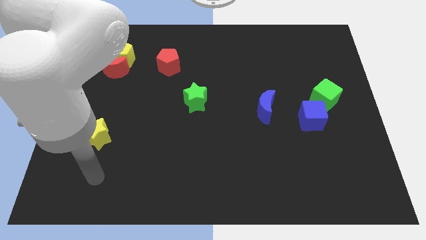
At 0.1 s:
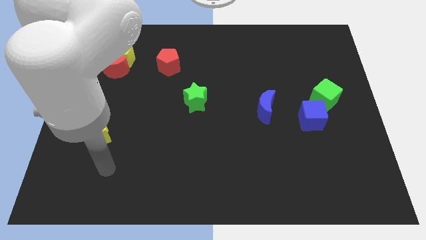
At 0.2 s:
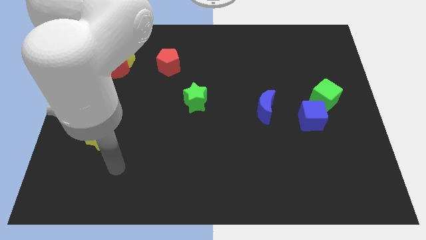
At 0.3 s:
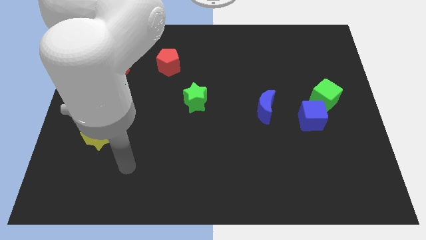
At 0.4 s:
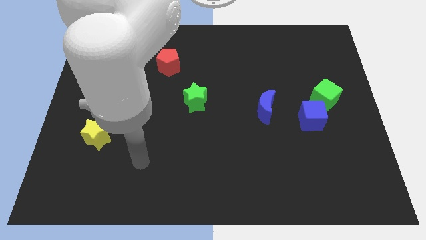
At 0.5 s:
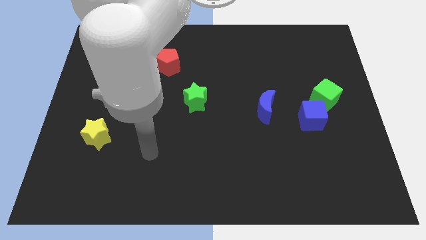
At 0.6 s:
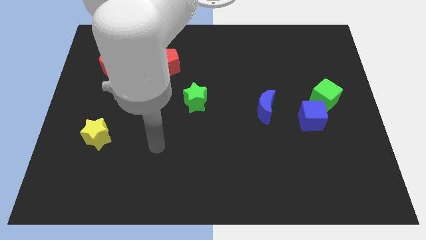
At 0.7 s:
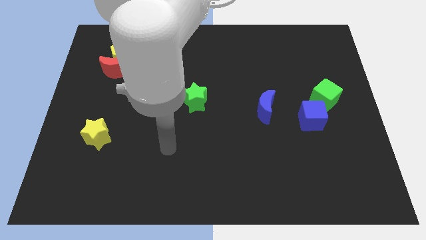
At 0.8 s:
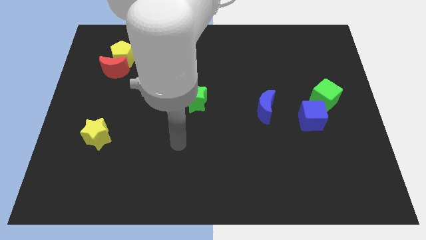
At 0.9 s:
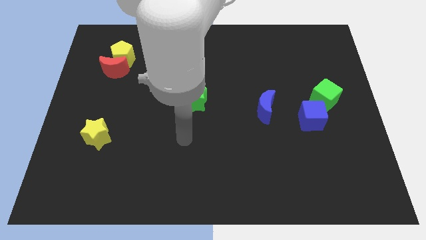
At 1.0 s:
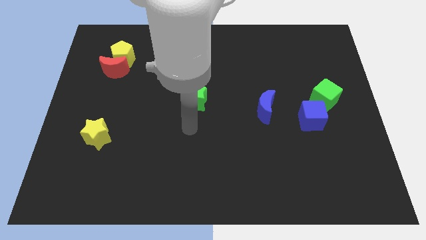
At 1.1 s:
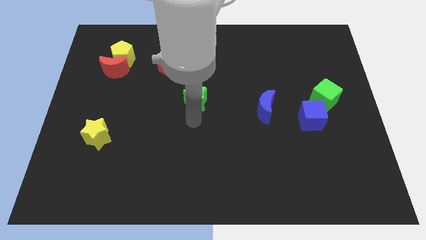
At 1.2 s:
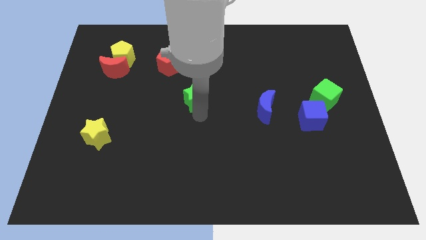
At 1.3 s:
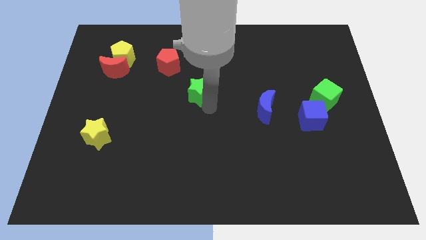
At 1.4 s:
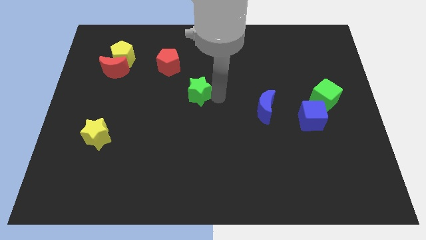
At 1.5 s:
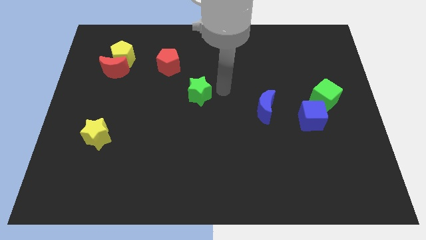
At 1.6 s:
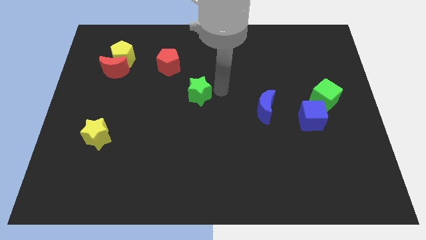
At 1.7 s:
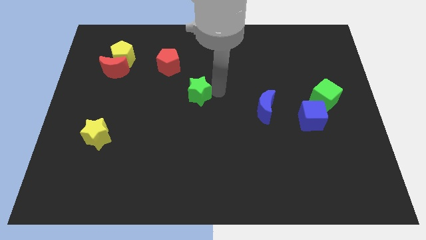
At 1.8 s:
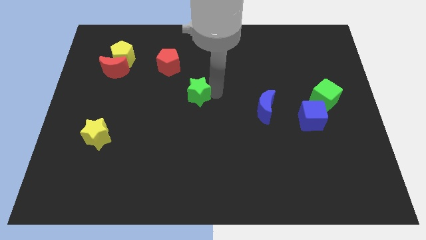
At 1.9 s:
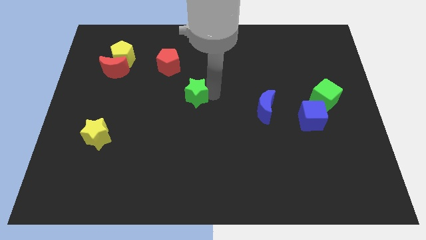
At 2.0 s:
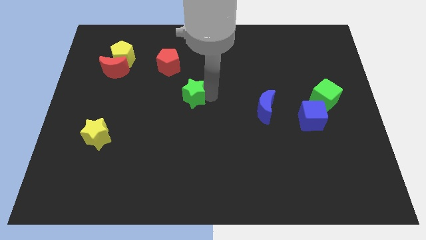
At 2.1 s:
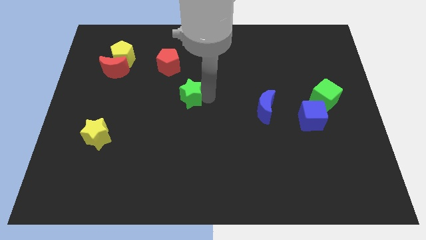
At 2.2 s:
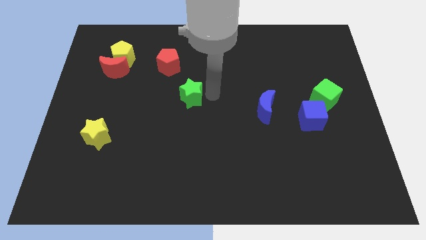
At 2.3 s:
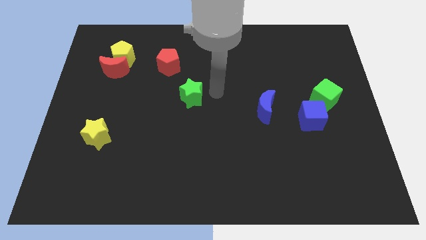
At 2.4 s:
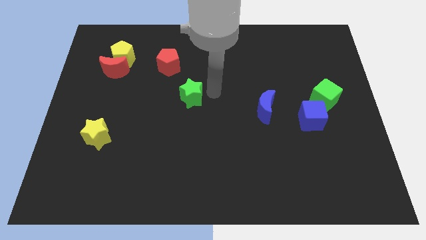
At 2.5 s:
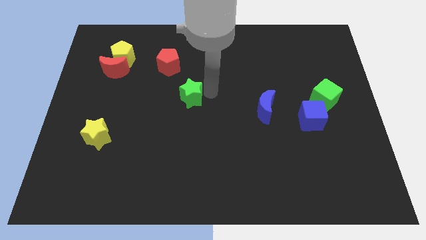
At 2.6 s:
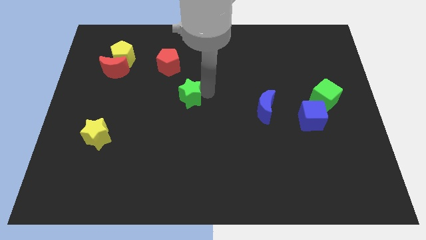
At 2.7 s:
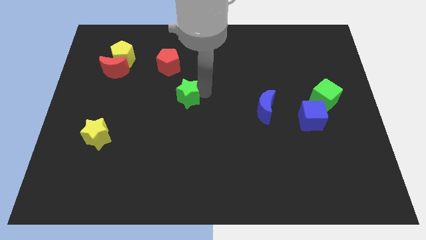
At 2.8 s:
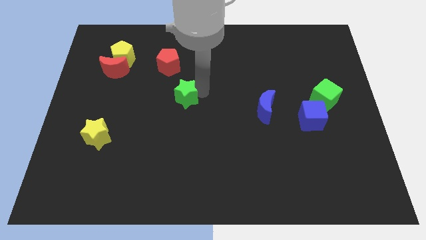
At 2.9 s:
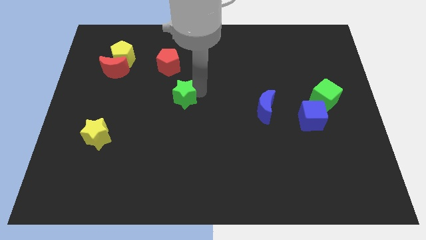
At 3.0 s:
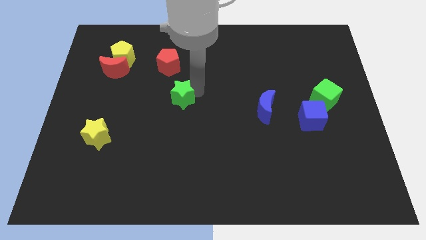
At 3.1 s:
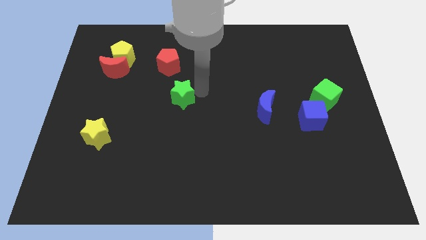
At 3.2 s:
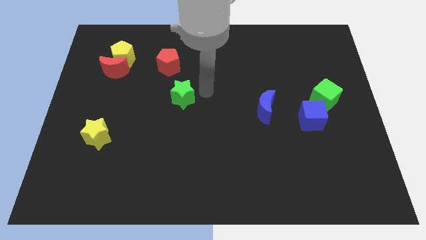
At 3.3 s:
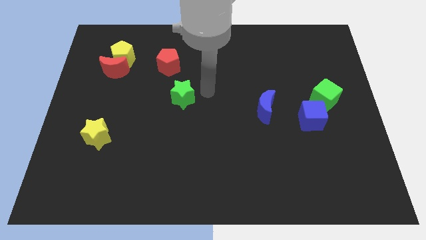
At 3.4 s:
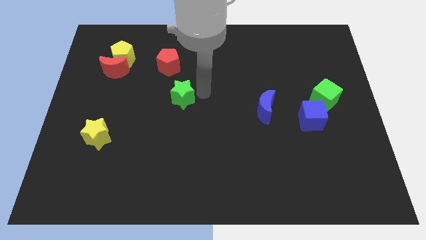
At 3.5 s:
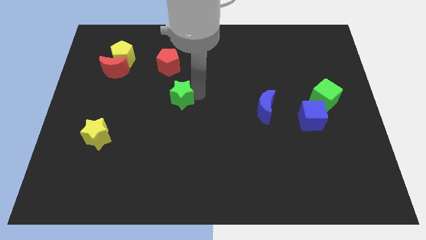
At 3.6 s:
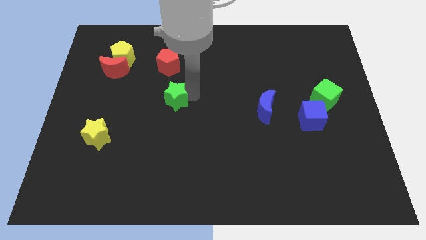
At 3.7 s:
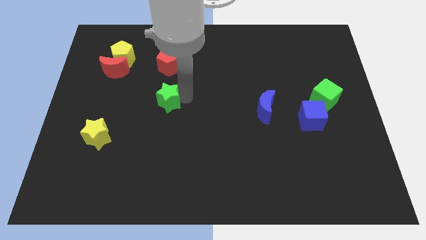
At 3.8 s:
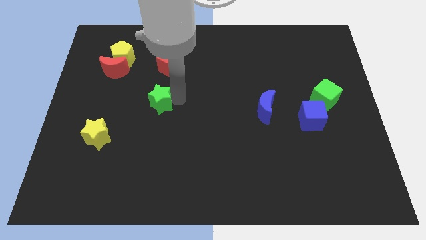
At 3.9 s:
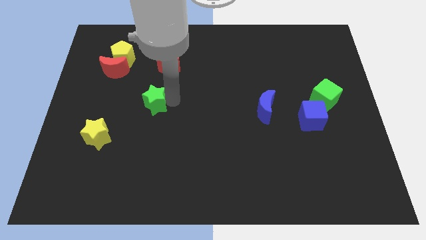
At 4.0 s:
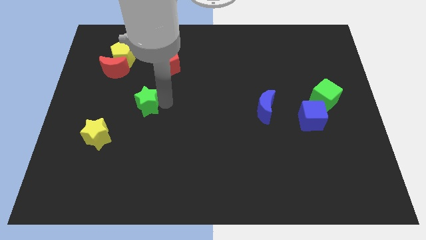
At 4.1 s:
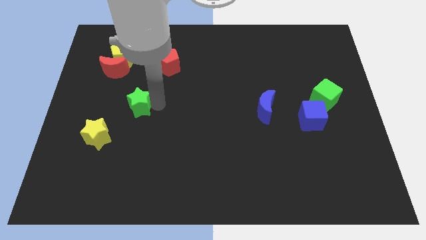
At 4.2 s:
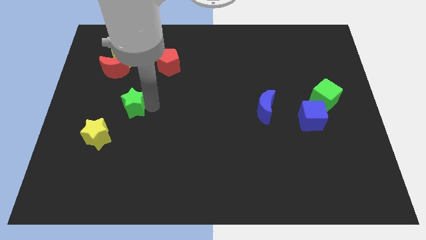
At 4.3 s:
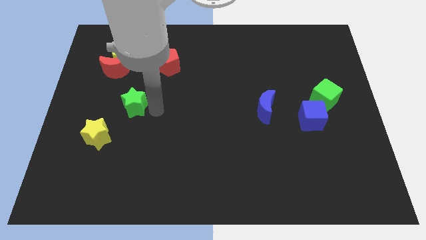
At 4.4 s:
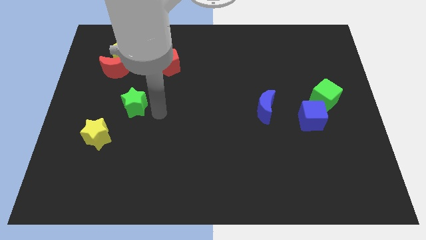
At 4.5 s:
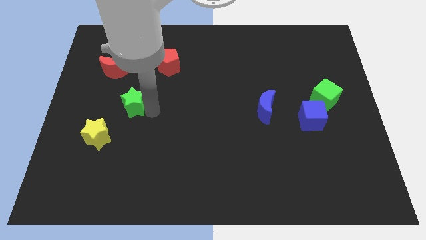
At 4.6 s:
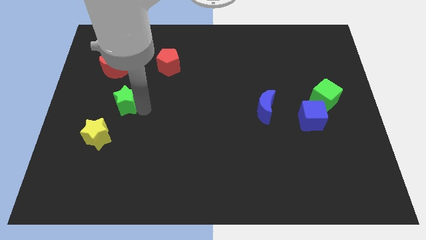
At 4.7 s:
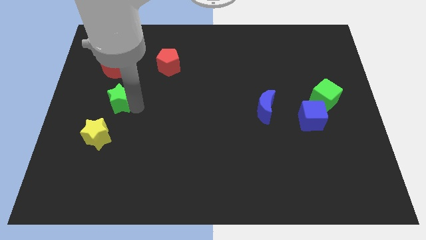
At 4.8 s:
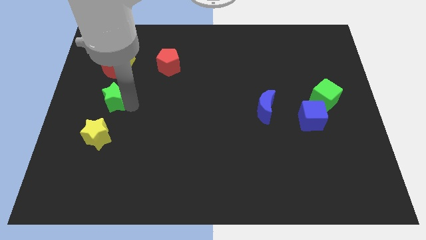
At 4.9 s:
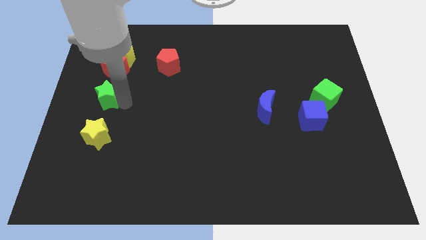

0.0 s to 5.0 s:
put the green star to the left side

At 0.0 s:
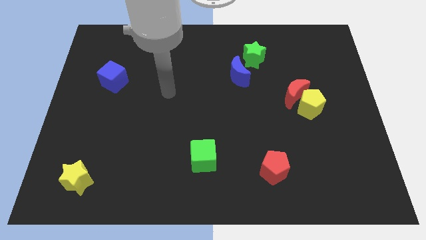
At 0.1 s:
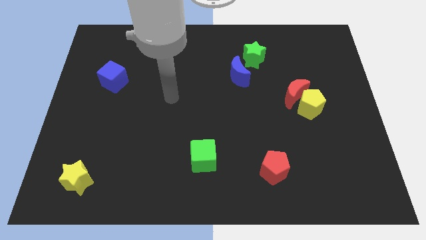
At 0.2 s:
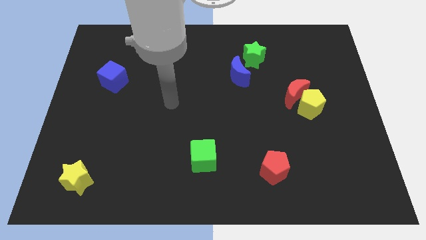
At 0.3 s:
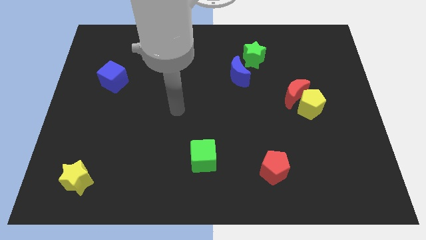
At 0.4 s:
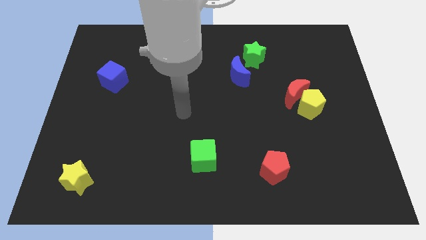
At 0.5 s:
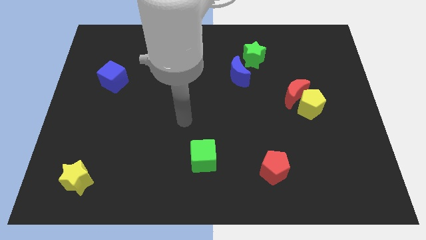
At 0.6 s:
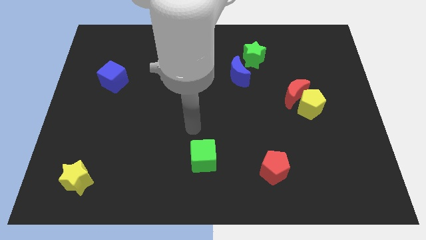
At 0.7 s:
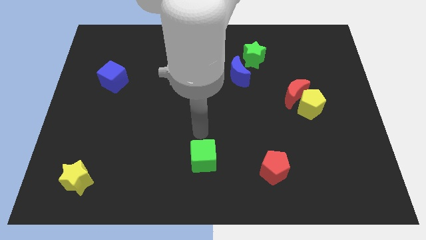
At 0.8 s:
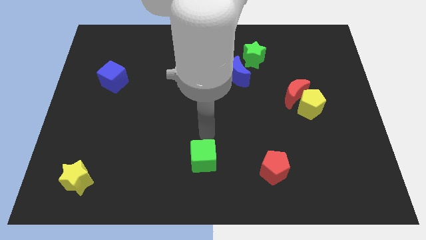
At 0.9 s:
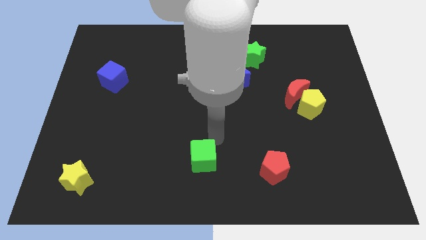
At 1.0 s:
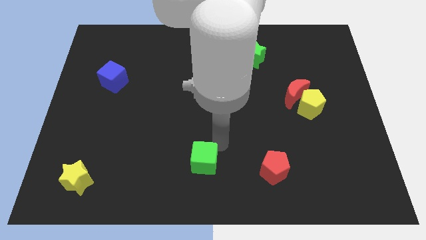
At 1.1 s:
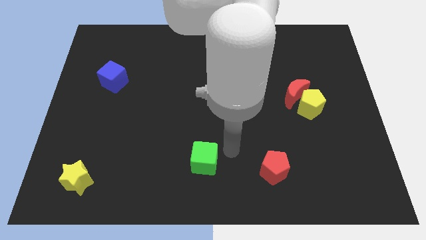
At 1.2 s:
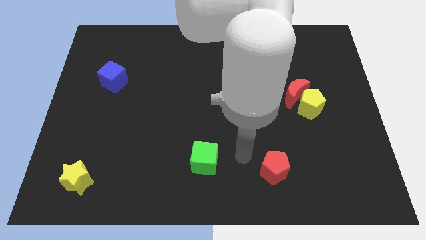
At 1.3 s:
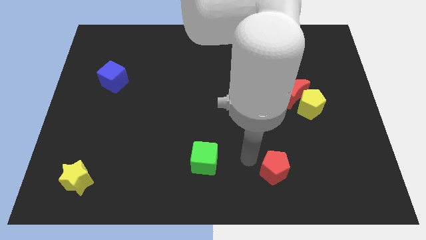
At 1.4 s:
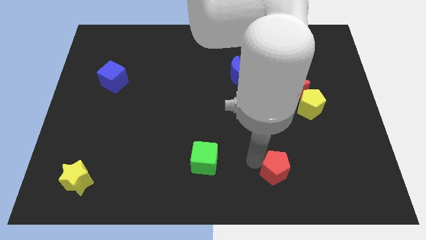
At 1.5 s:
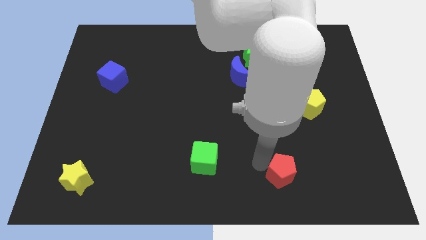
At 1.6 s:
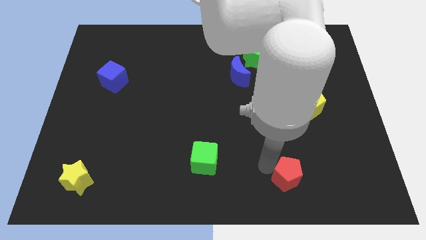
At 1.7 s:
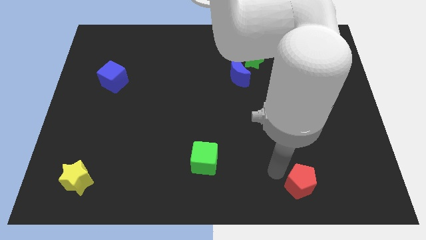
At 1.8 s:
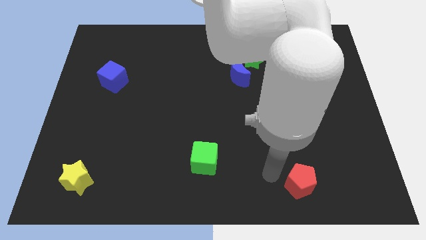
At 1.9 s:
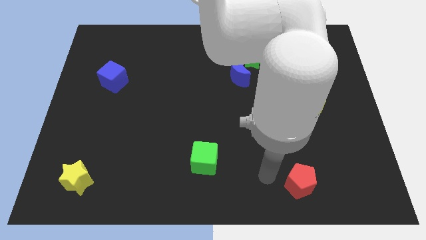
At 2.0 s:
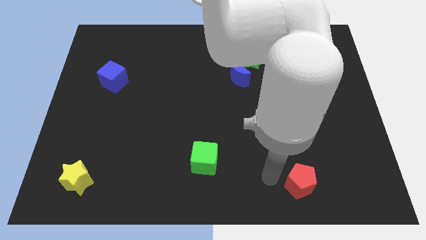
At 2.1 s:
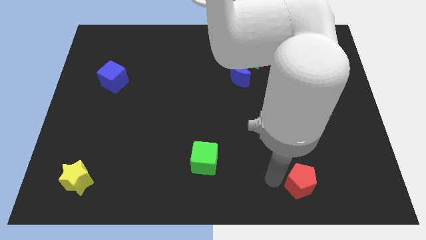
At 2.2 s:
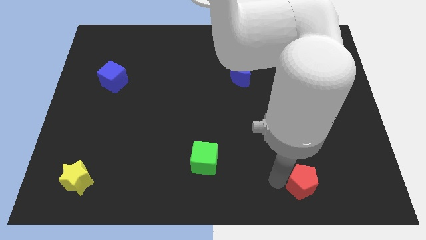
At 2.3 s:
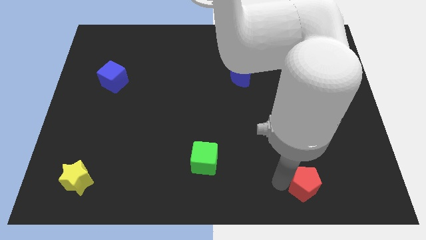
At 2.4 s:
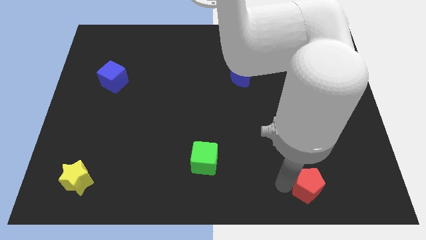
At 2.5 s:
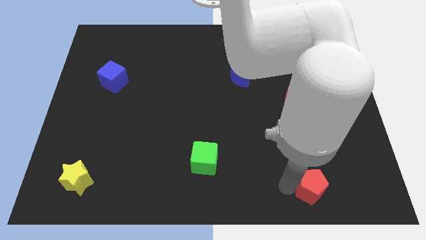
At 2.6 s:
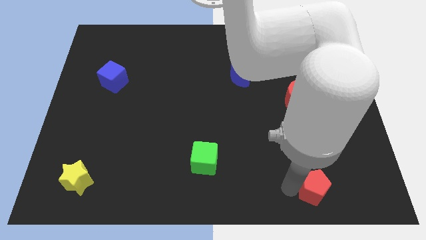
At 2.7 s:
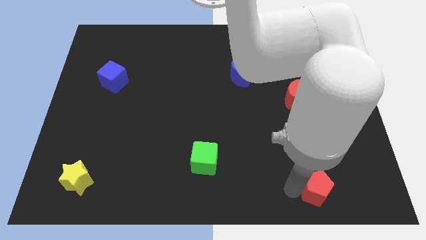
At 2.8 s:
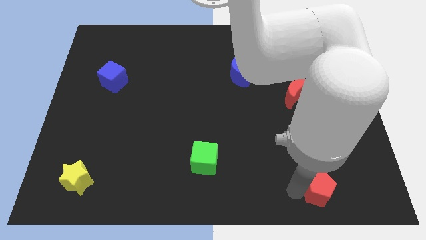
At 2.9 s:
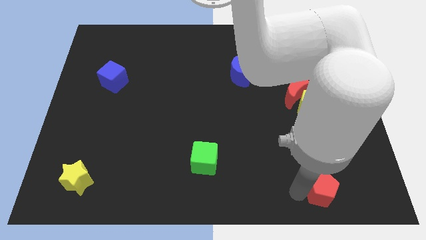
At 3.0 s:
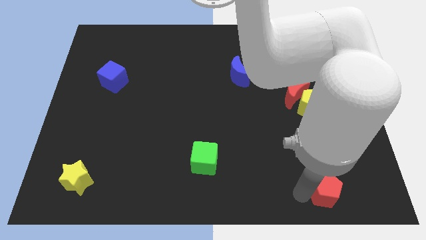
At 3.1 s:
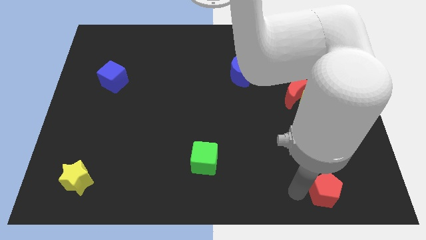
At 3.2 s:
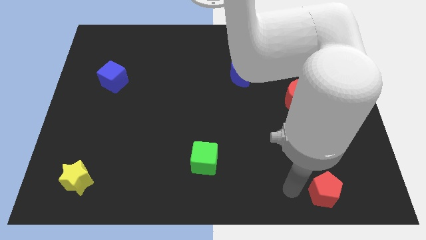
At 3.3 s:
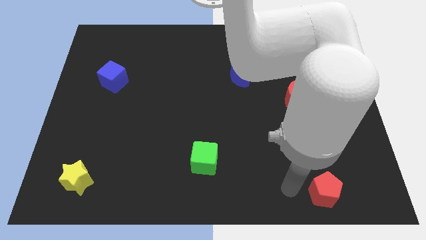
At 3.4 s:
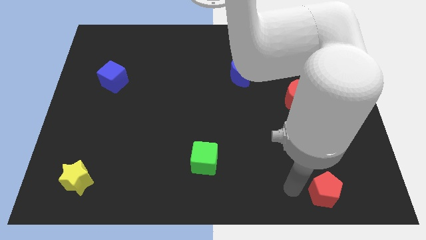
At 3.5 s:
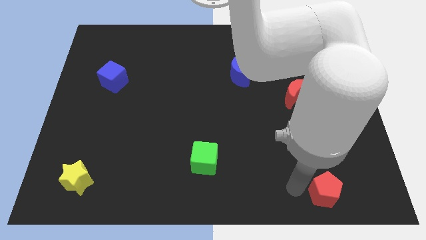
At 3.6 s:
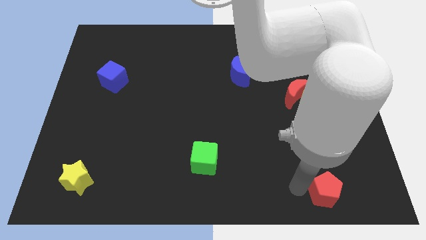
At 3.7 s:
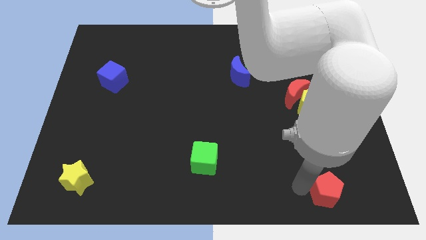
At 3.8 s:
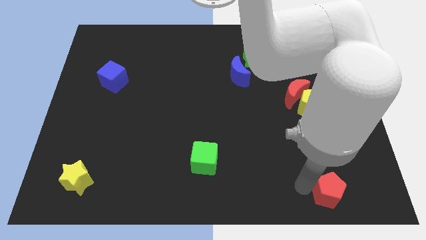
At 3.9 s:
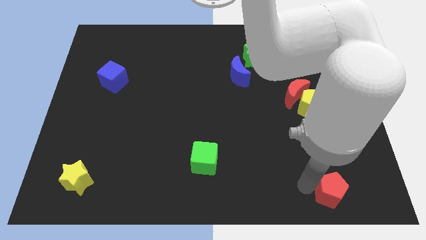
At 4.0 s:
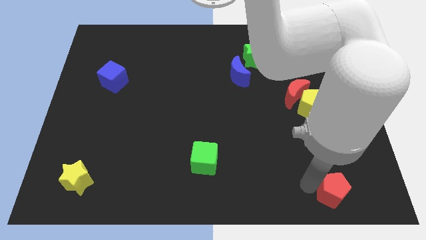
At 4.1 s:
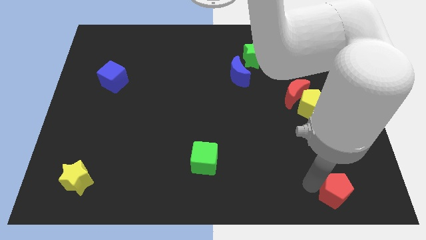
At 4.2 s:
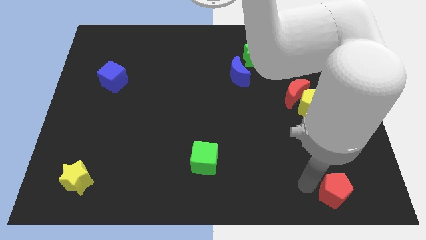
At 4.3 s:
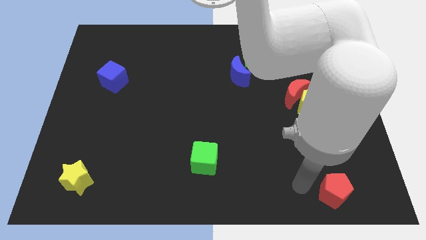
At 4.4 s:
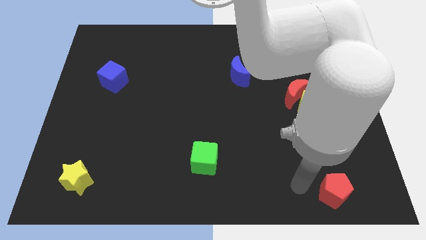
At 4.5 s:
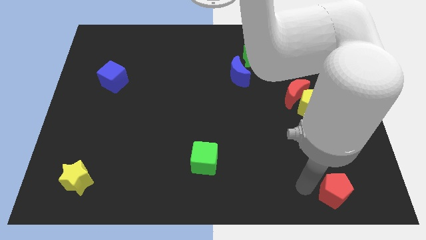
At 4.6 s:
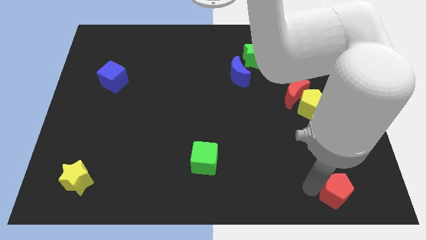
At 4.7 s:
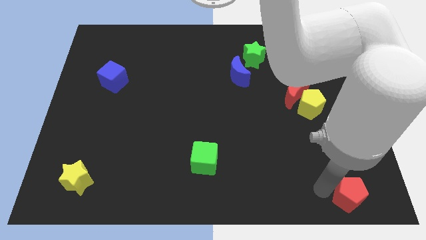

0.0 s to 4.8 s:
push the red pentagon to the bottom right of the board
